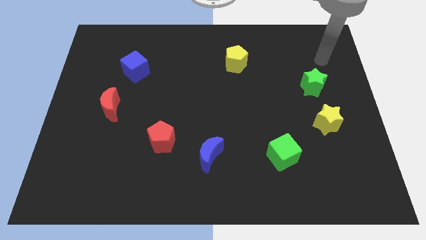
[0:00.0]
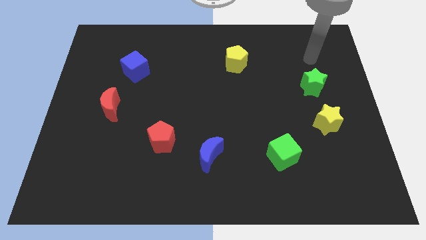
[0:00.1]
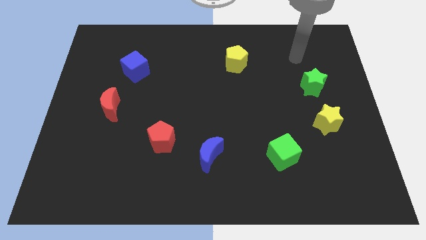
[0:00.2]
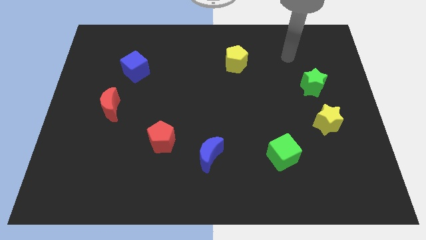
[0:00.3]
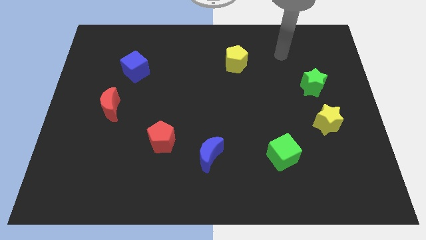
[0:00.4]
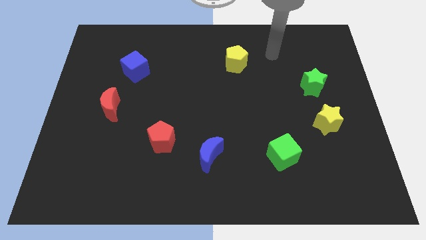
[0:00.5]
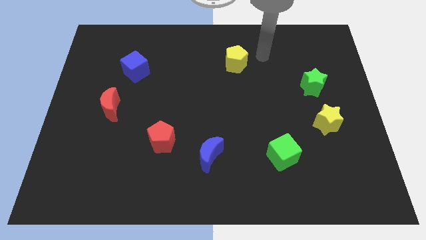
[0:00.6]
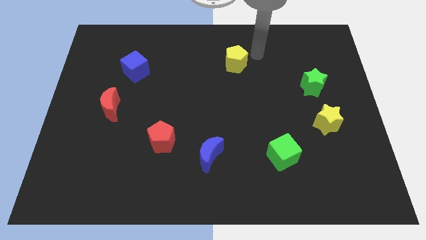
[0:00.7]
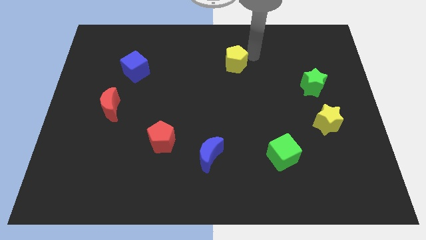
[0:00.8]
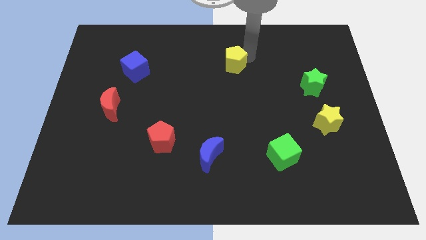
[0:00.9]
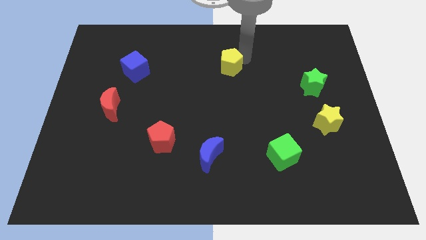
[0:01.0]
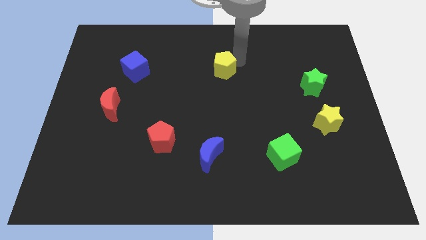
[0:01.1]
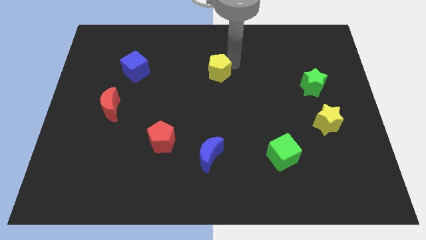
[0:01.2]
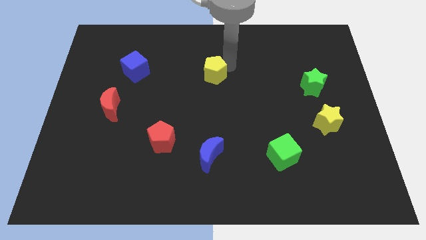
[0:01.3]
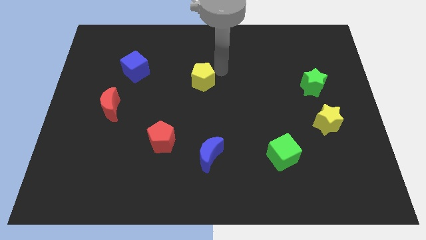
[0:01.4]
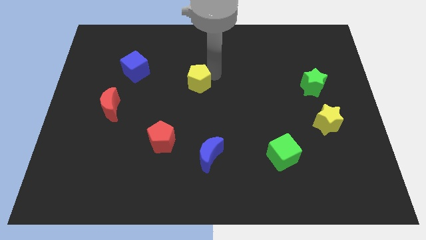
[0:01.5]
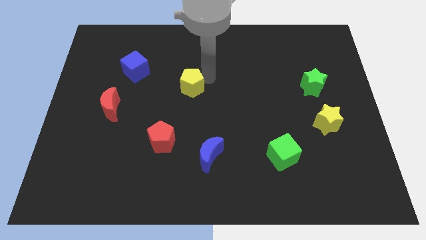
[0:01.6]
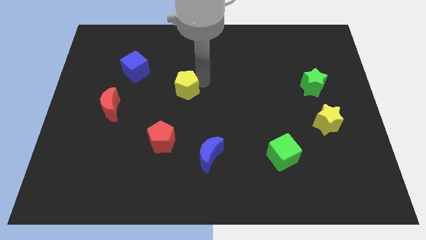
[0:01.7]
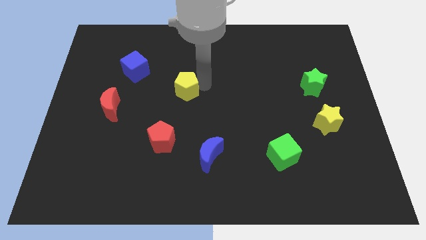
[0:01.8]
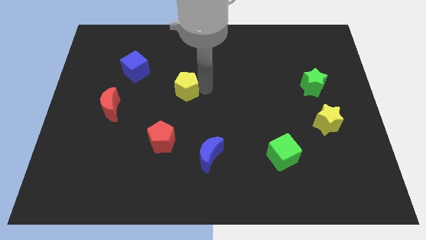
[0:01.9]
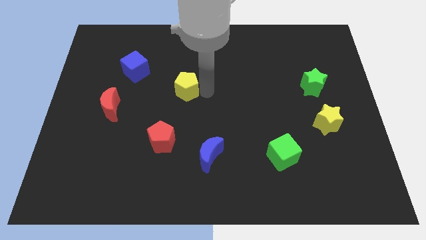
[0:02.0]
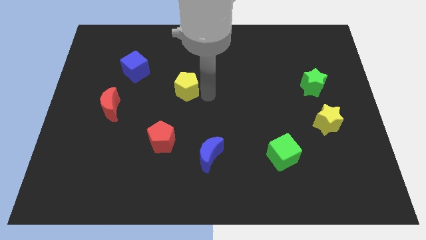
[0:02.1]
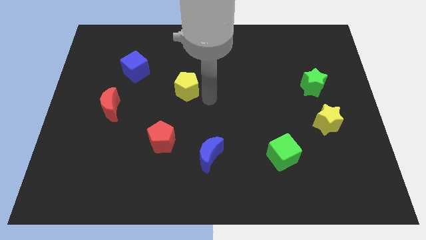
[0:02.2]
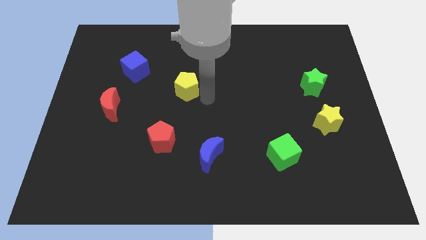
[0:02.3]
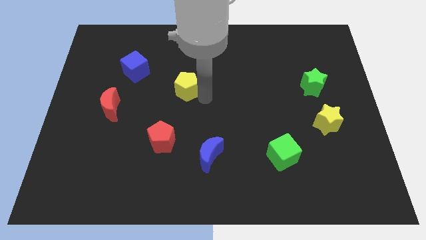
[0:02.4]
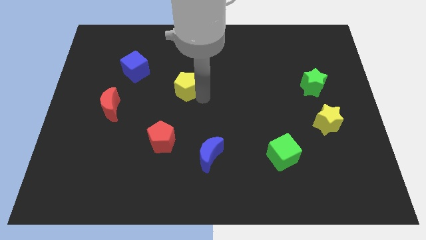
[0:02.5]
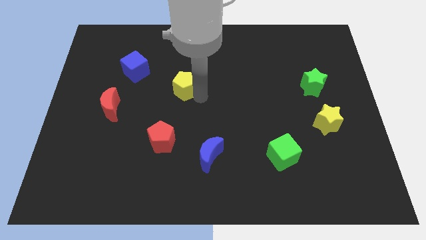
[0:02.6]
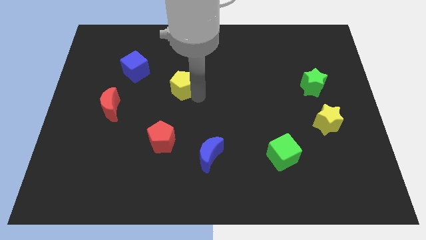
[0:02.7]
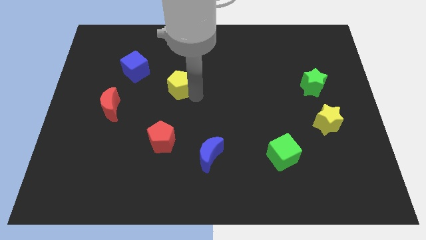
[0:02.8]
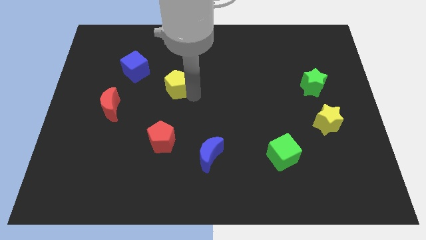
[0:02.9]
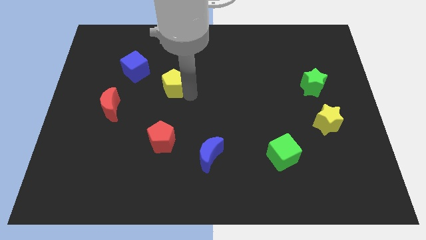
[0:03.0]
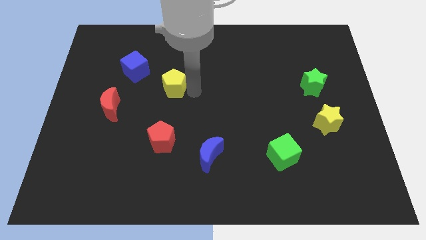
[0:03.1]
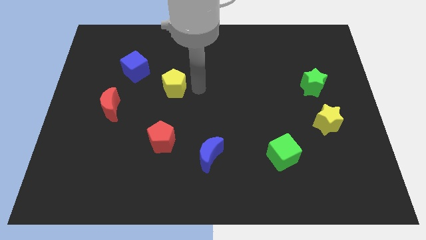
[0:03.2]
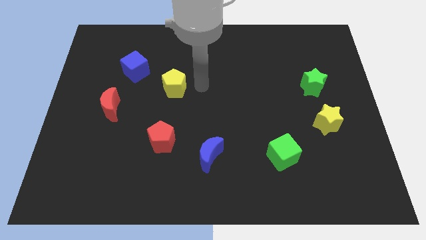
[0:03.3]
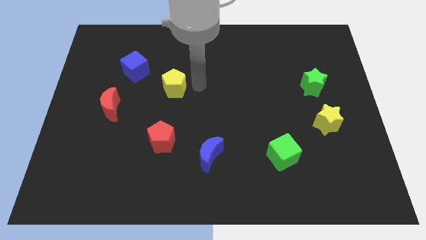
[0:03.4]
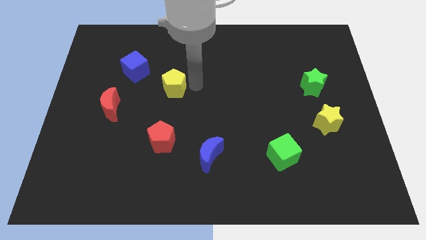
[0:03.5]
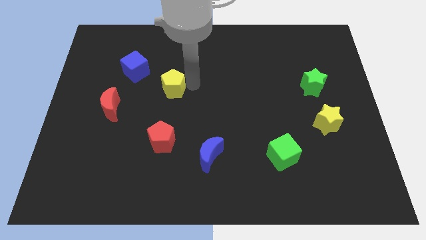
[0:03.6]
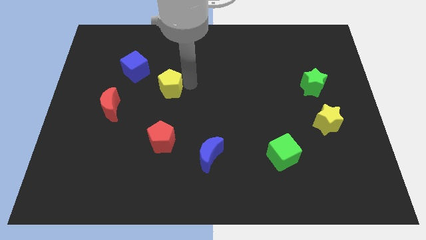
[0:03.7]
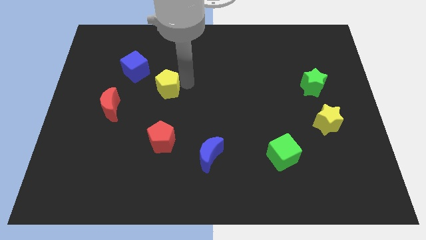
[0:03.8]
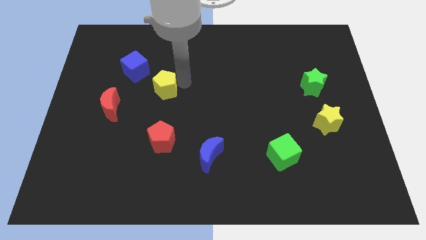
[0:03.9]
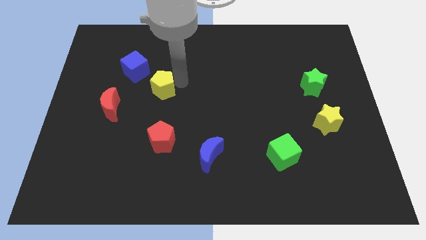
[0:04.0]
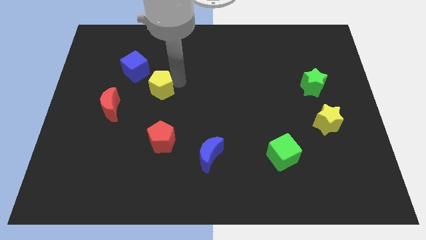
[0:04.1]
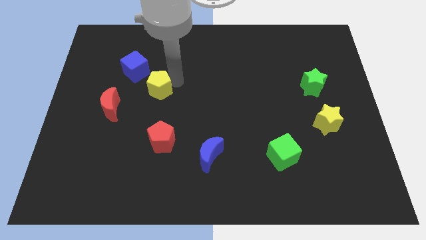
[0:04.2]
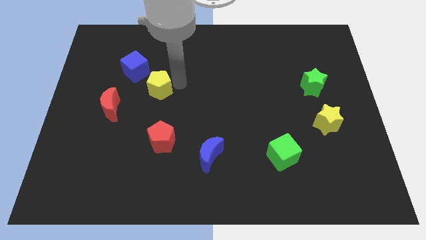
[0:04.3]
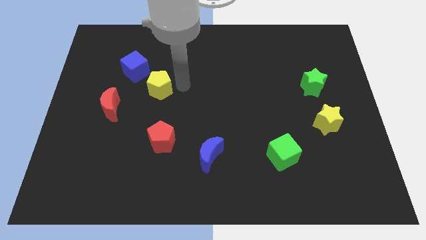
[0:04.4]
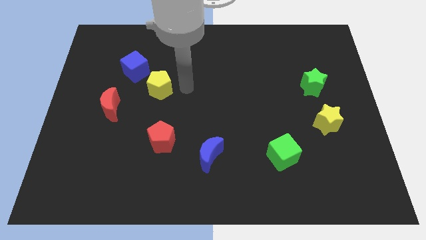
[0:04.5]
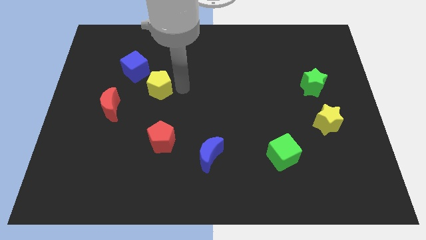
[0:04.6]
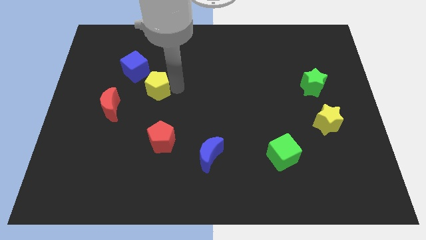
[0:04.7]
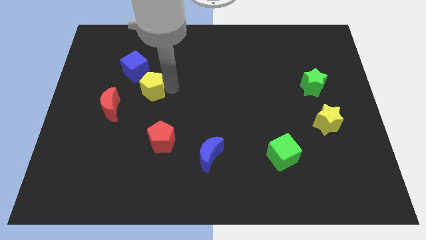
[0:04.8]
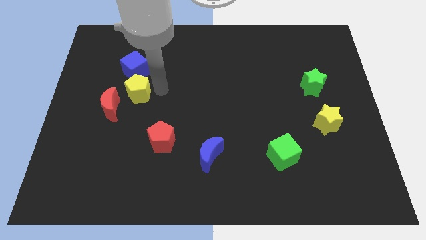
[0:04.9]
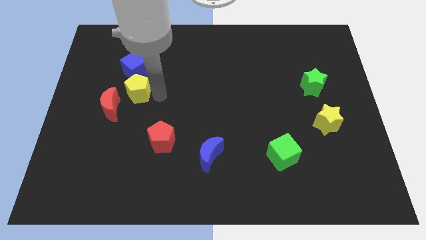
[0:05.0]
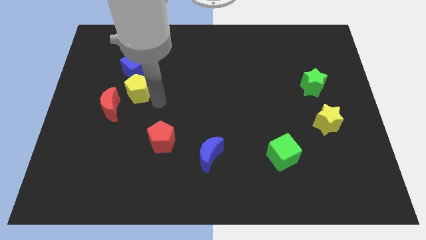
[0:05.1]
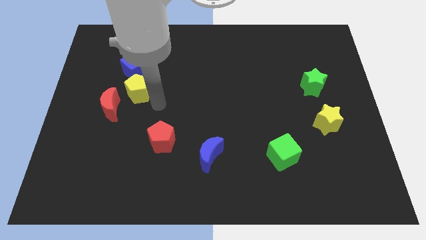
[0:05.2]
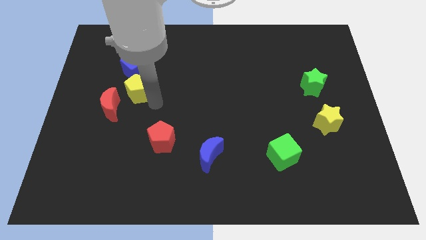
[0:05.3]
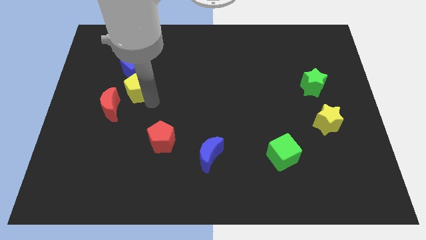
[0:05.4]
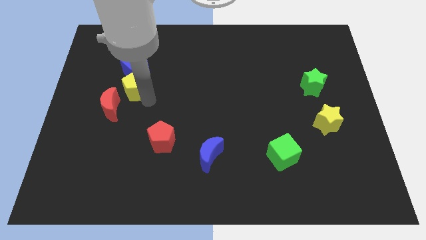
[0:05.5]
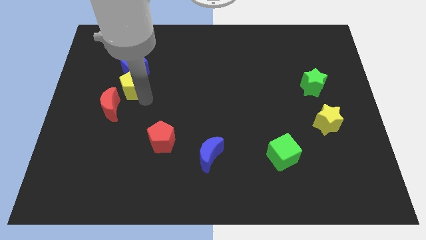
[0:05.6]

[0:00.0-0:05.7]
move the yellow pentagon to the top side of the red moon

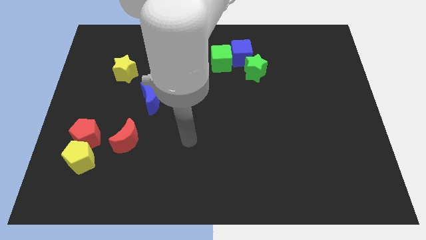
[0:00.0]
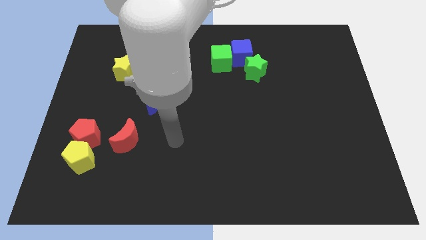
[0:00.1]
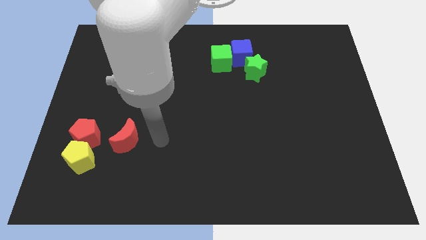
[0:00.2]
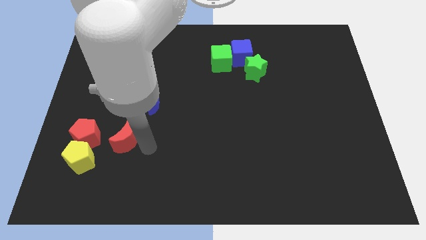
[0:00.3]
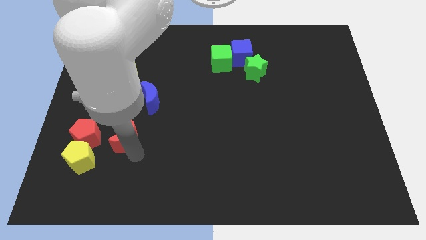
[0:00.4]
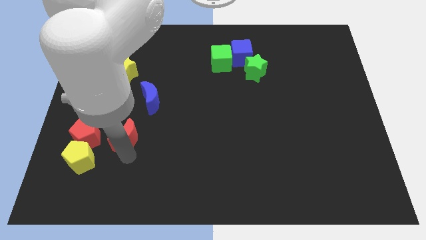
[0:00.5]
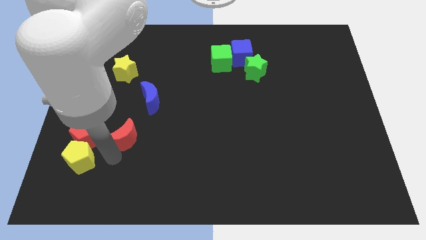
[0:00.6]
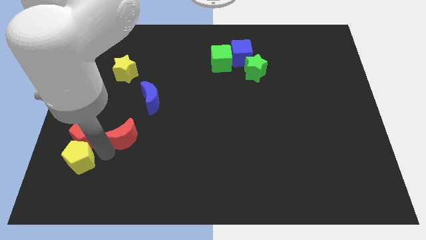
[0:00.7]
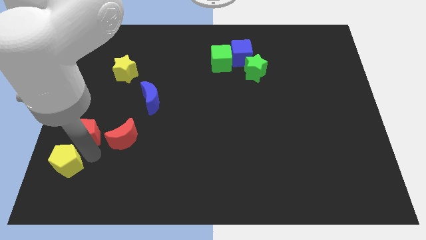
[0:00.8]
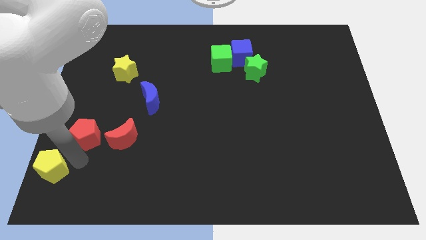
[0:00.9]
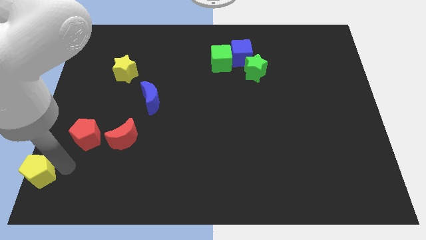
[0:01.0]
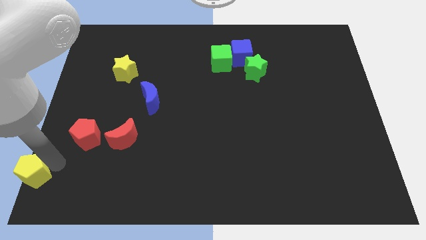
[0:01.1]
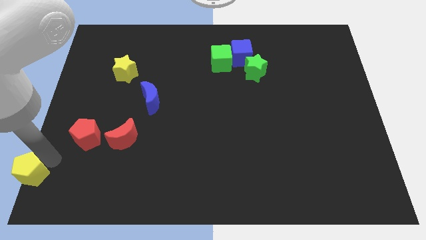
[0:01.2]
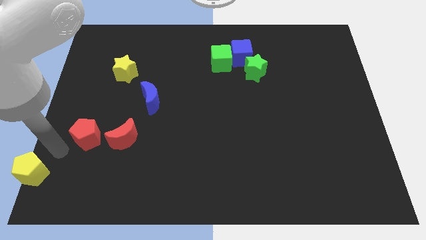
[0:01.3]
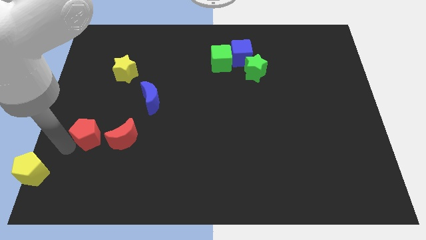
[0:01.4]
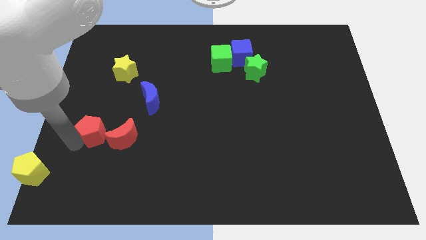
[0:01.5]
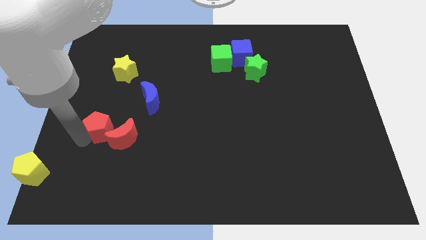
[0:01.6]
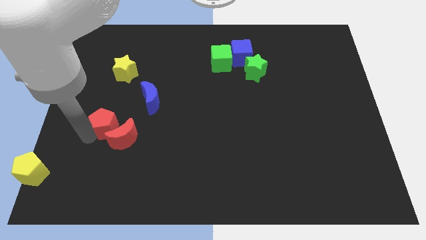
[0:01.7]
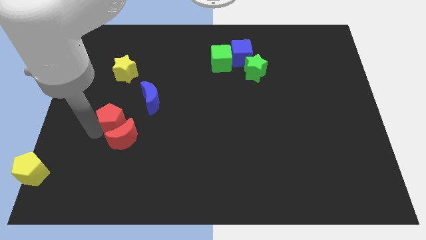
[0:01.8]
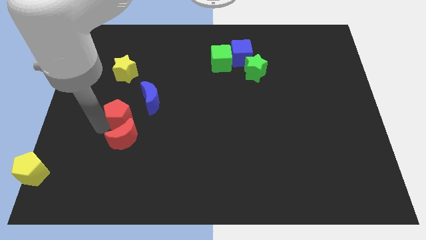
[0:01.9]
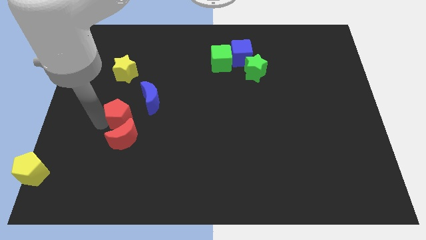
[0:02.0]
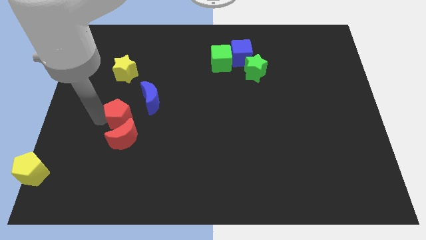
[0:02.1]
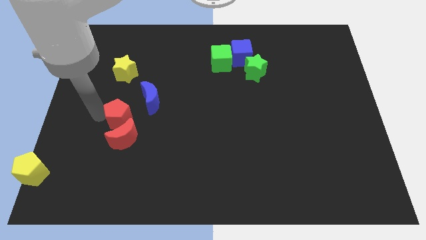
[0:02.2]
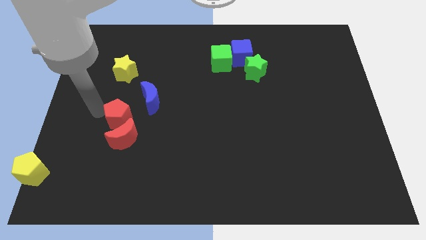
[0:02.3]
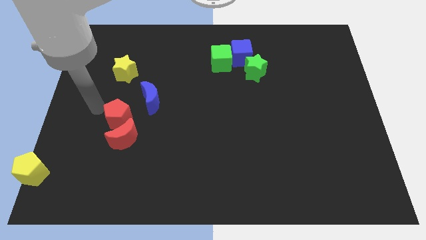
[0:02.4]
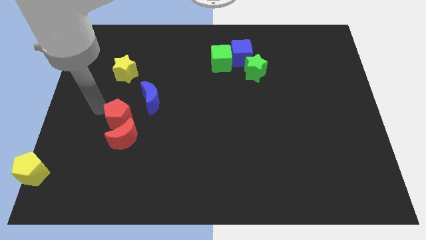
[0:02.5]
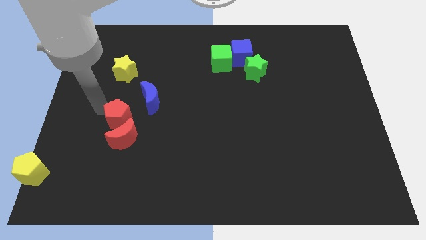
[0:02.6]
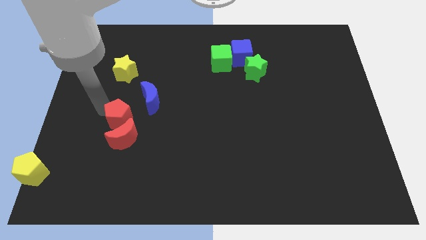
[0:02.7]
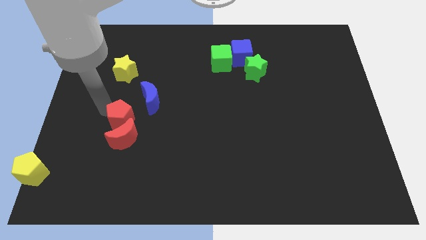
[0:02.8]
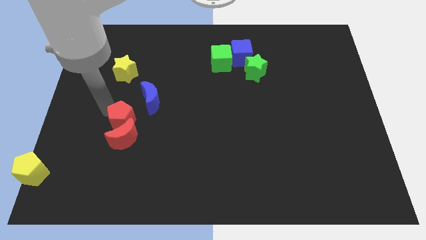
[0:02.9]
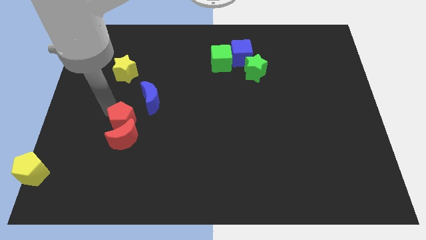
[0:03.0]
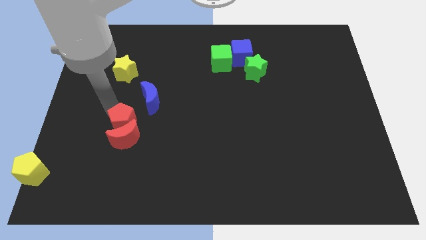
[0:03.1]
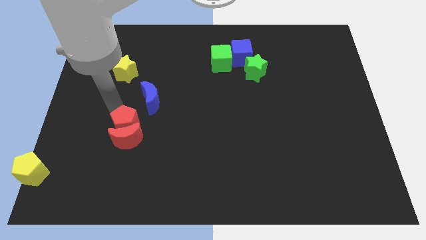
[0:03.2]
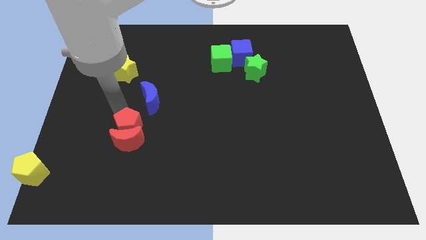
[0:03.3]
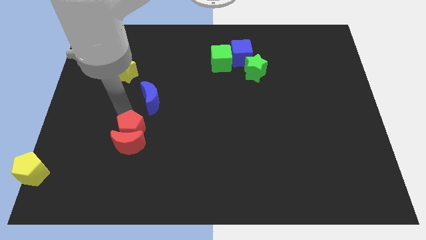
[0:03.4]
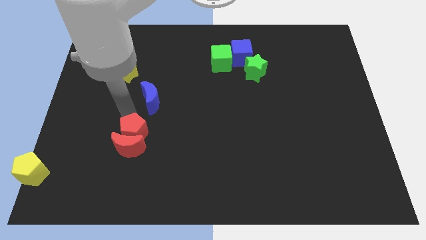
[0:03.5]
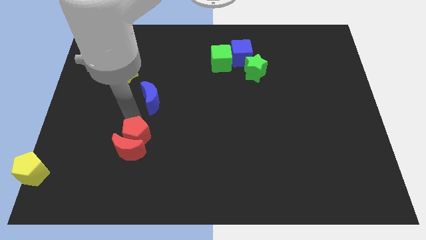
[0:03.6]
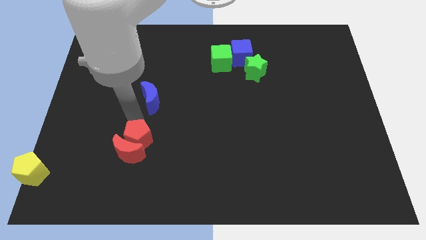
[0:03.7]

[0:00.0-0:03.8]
put the red pentagon to the right of the red moon
